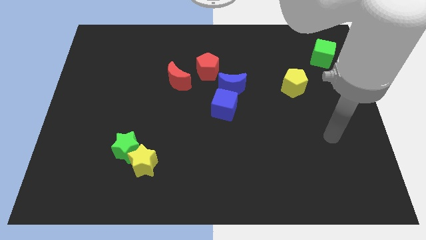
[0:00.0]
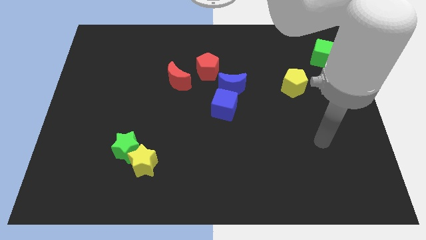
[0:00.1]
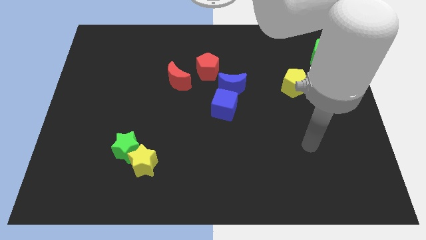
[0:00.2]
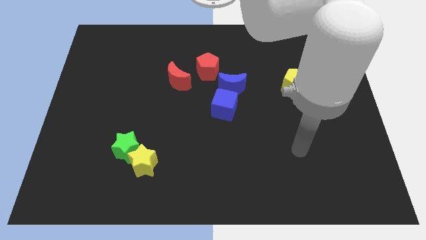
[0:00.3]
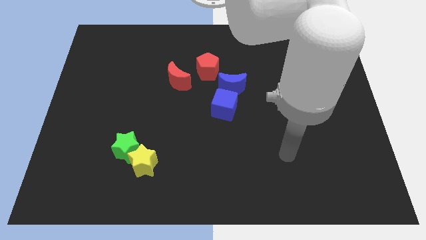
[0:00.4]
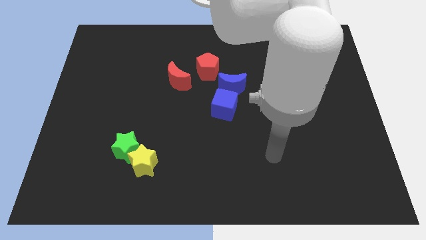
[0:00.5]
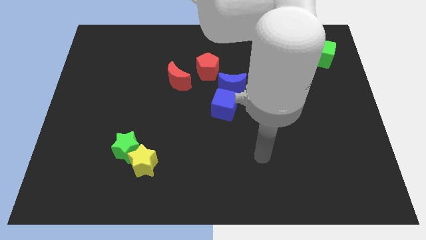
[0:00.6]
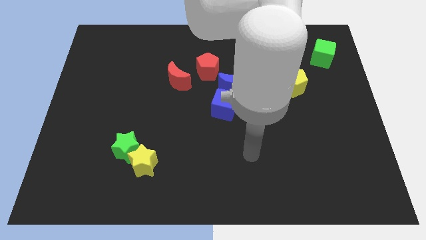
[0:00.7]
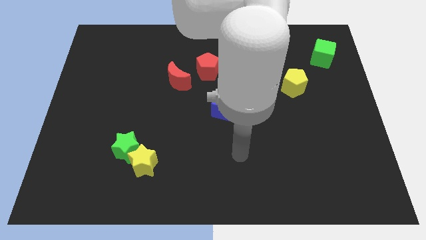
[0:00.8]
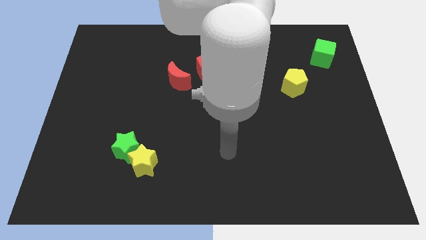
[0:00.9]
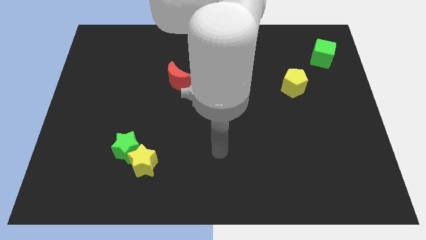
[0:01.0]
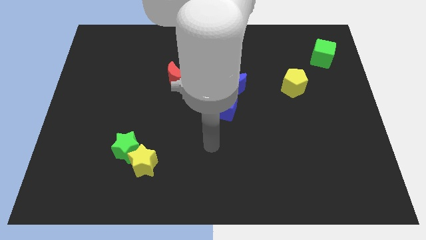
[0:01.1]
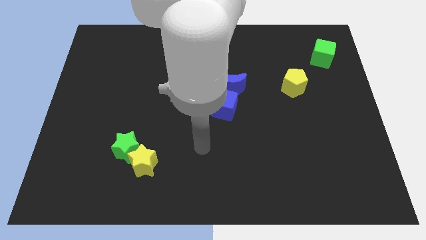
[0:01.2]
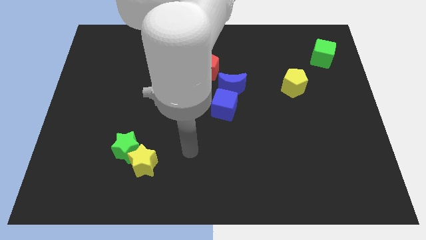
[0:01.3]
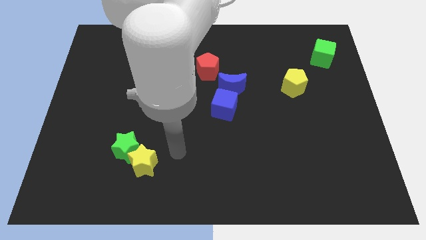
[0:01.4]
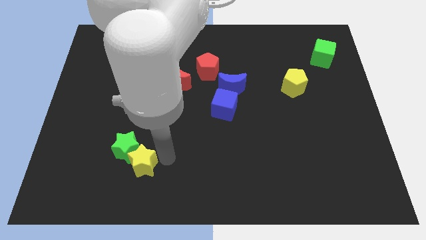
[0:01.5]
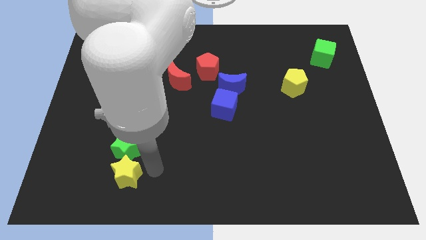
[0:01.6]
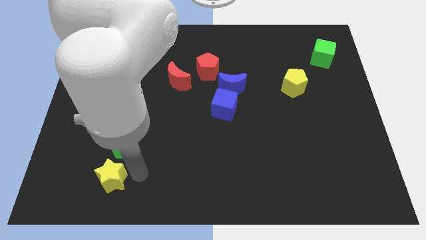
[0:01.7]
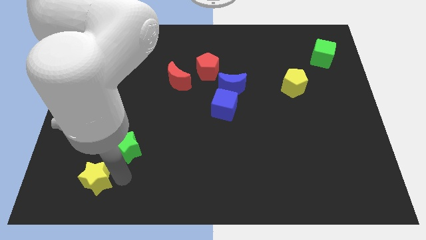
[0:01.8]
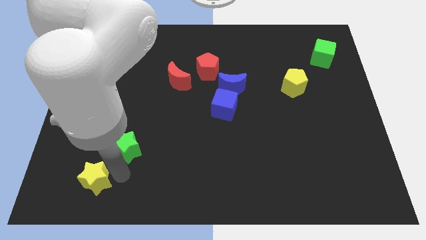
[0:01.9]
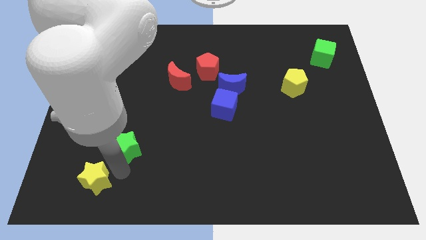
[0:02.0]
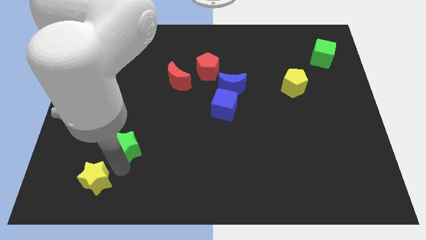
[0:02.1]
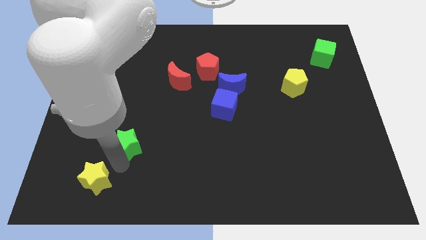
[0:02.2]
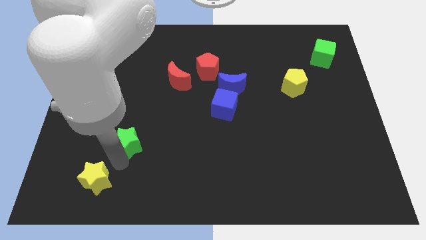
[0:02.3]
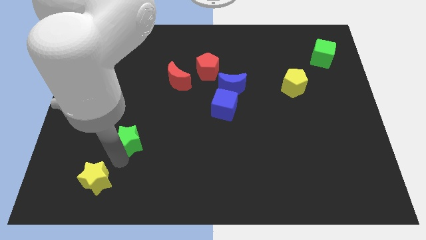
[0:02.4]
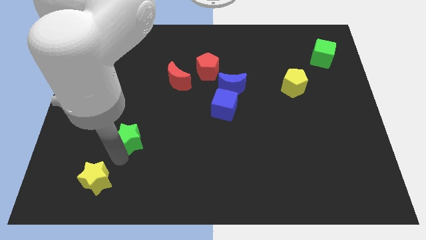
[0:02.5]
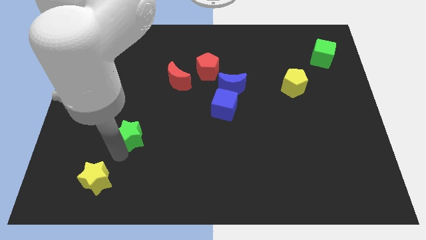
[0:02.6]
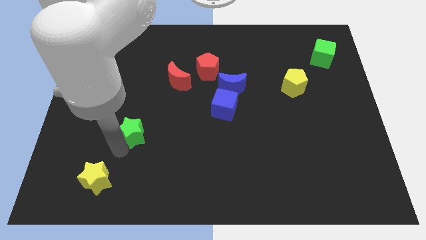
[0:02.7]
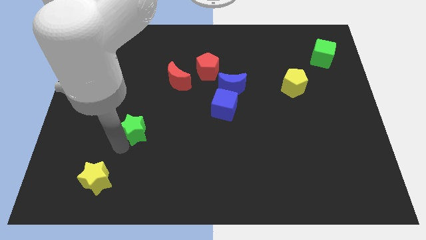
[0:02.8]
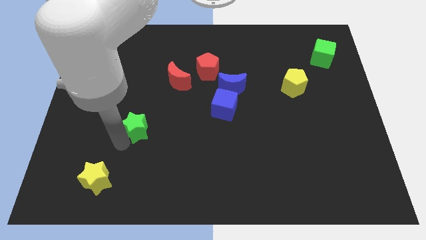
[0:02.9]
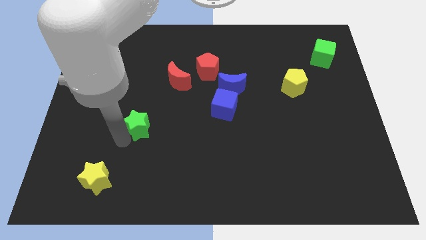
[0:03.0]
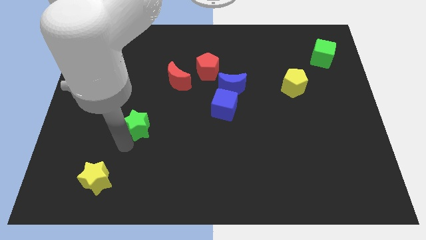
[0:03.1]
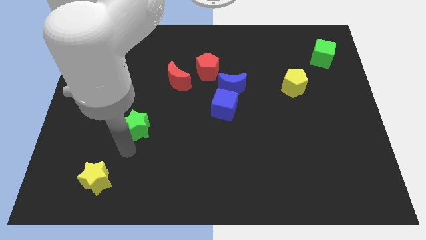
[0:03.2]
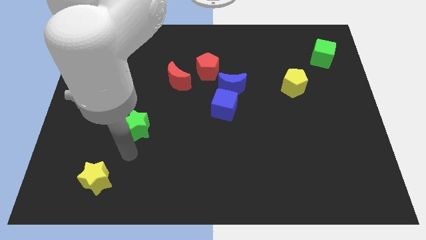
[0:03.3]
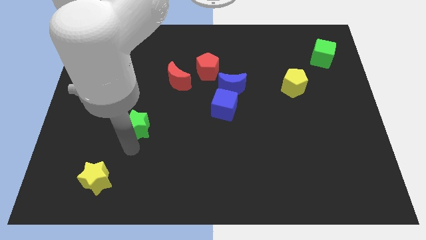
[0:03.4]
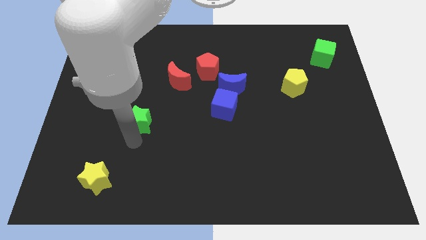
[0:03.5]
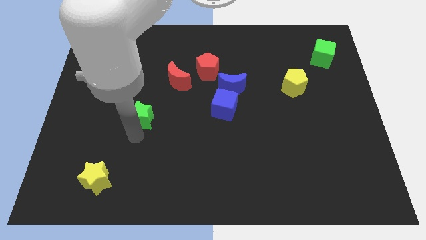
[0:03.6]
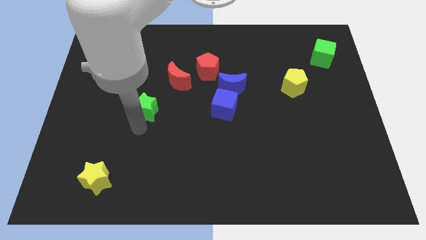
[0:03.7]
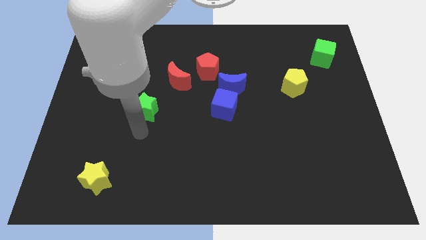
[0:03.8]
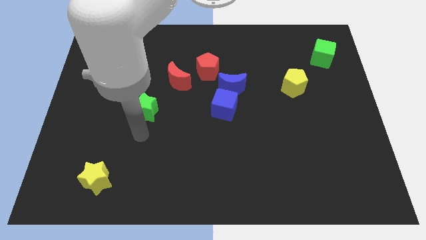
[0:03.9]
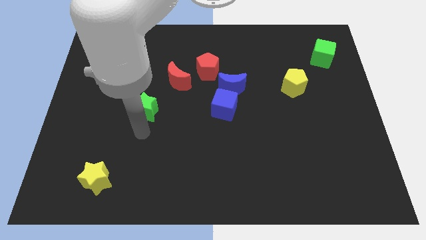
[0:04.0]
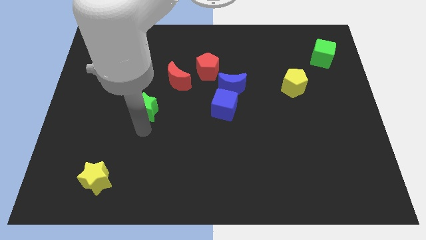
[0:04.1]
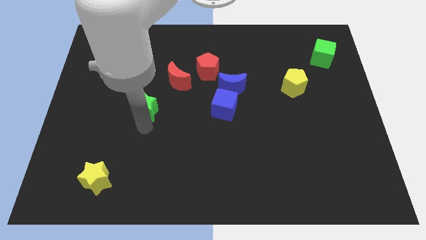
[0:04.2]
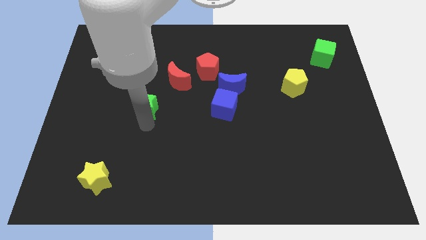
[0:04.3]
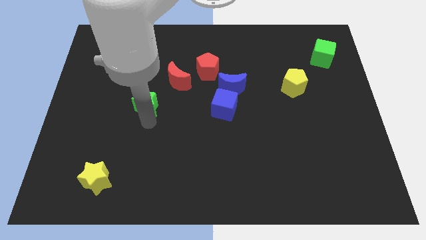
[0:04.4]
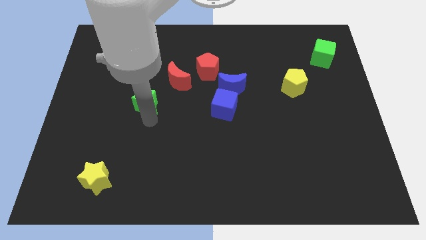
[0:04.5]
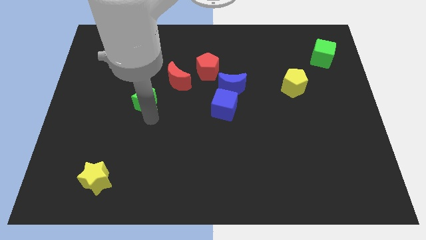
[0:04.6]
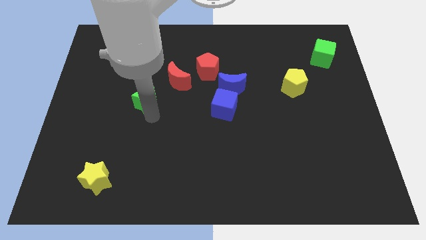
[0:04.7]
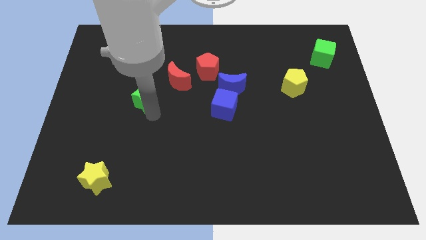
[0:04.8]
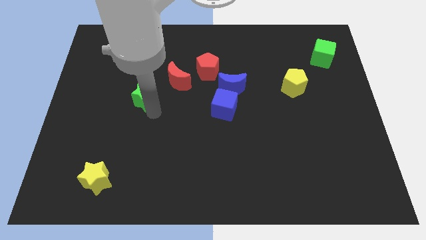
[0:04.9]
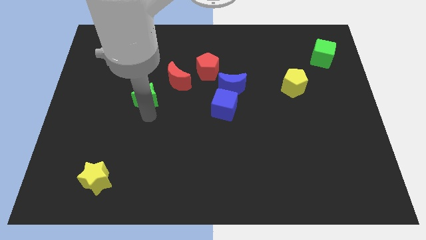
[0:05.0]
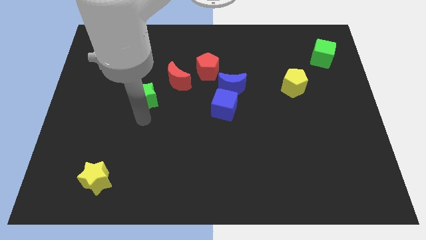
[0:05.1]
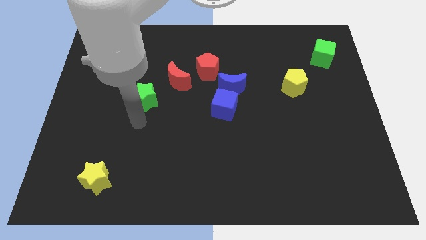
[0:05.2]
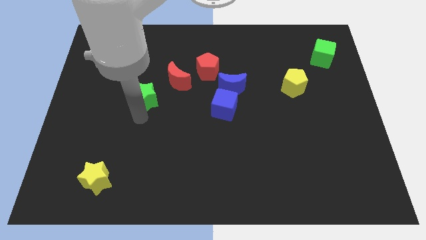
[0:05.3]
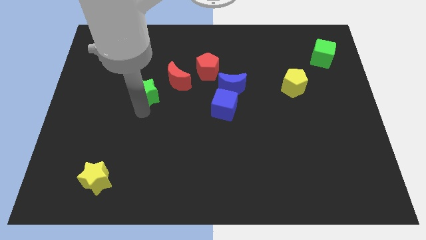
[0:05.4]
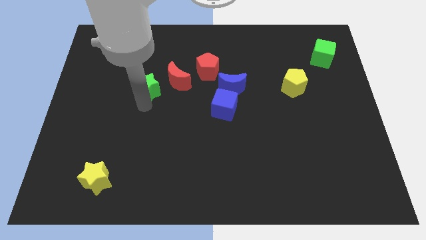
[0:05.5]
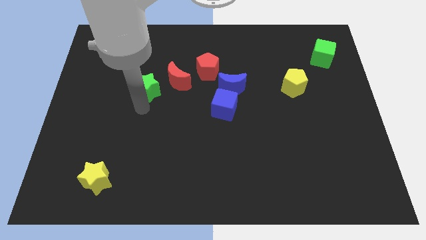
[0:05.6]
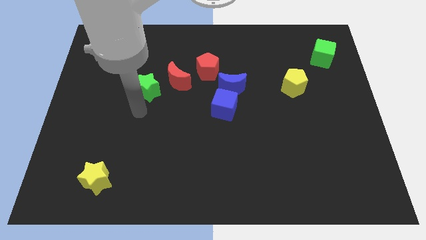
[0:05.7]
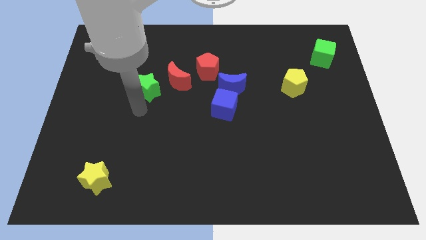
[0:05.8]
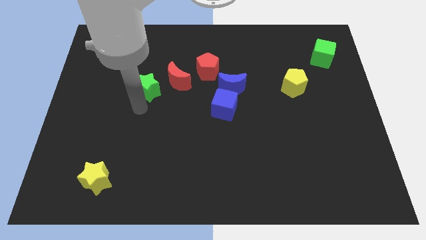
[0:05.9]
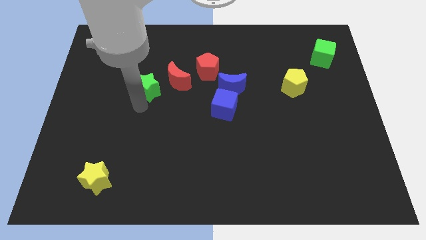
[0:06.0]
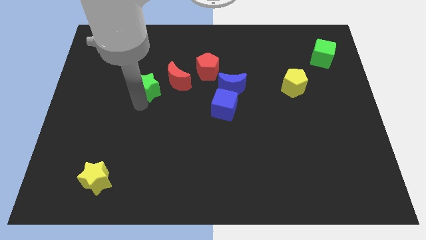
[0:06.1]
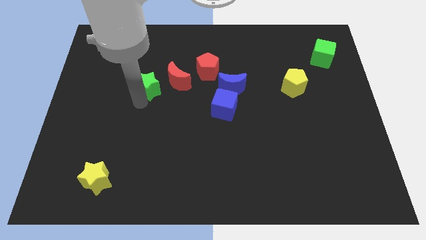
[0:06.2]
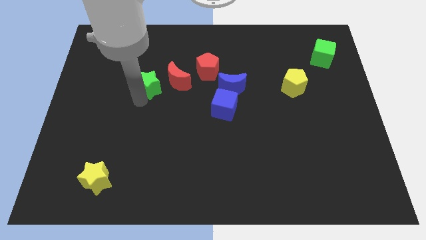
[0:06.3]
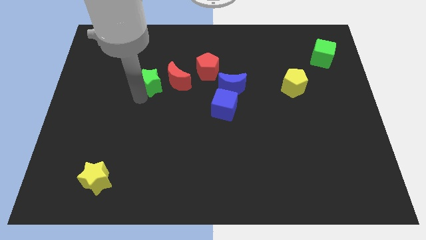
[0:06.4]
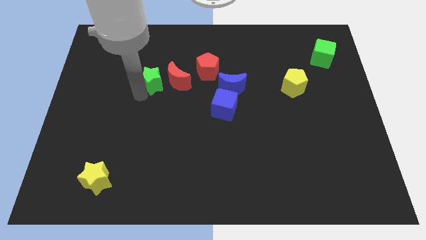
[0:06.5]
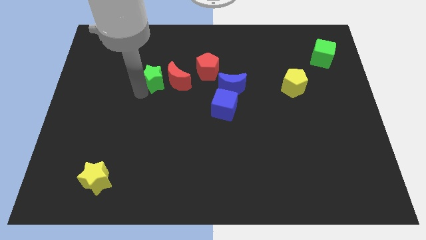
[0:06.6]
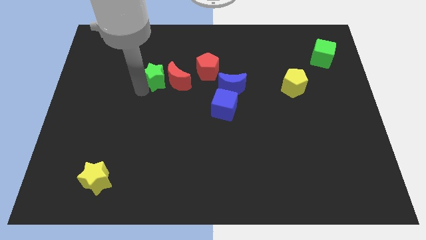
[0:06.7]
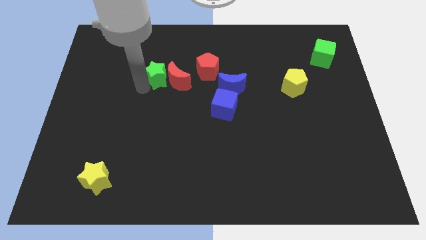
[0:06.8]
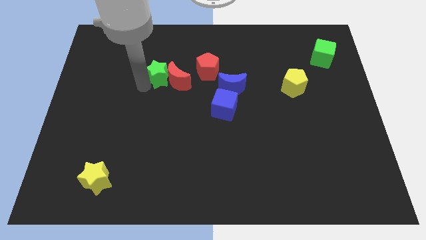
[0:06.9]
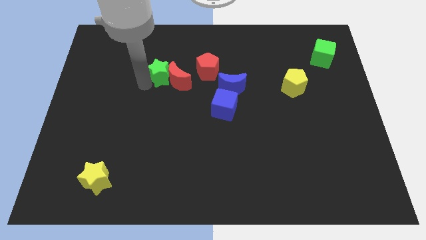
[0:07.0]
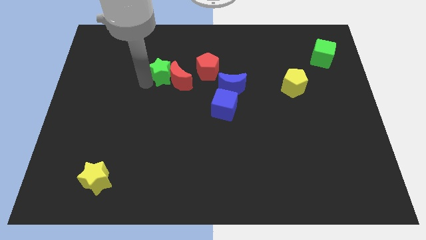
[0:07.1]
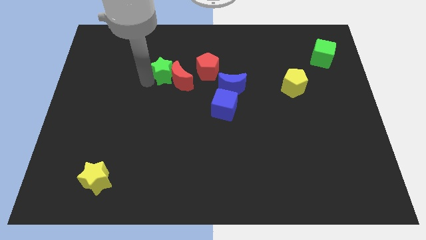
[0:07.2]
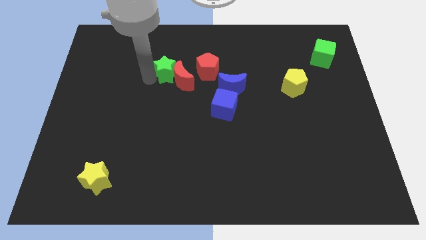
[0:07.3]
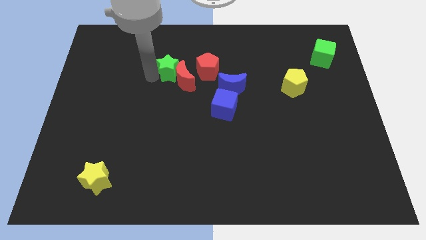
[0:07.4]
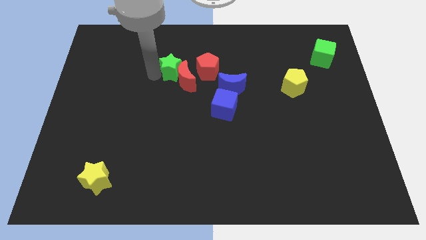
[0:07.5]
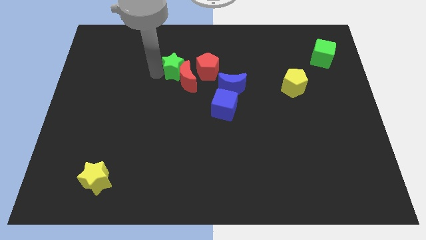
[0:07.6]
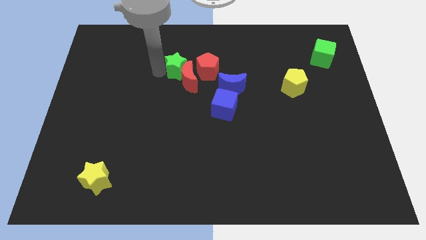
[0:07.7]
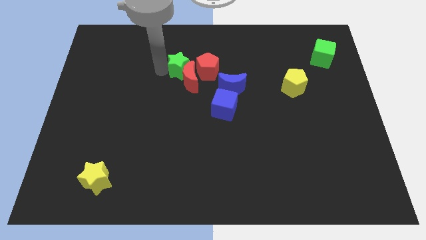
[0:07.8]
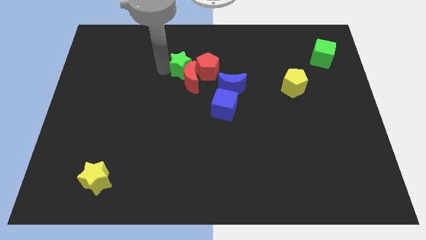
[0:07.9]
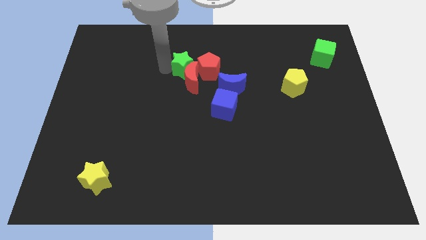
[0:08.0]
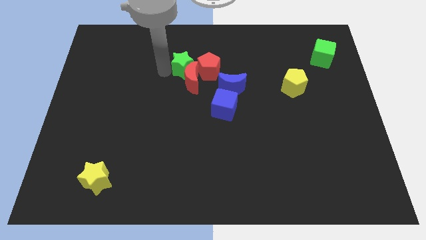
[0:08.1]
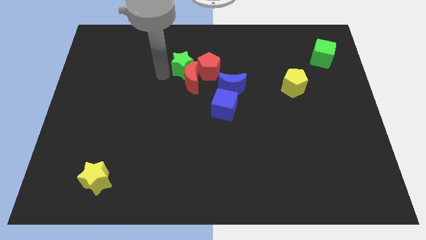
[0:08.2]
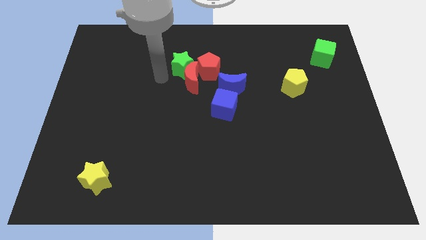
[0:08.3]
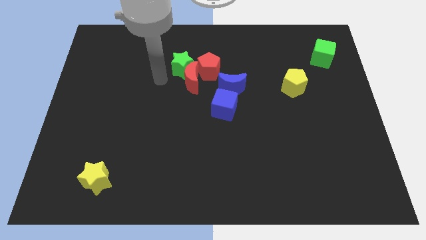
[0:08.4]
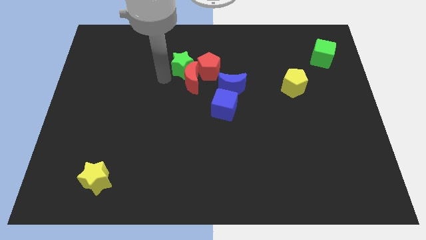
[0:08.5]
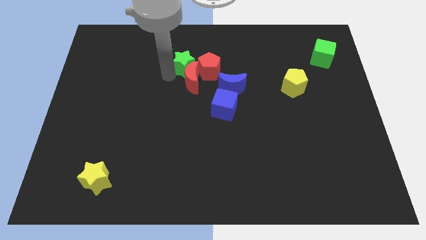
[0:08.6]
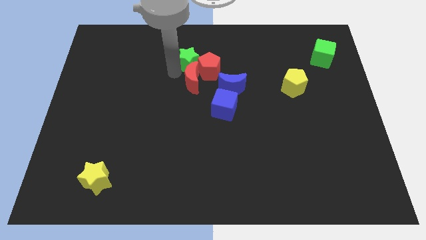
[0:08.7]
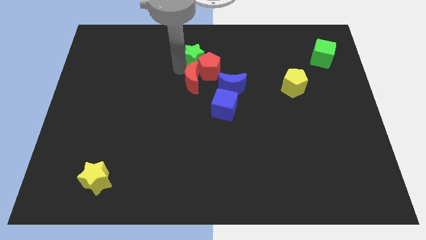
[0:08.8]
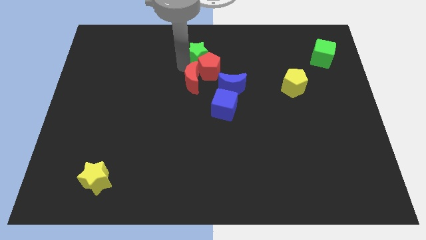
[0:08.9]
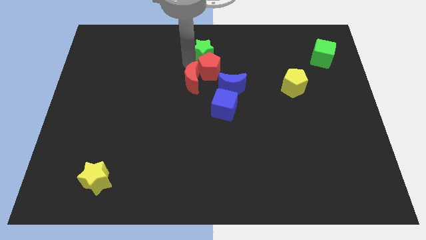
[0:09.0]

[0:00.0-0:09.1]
move the green star to the top
